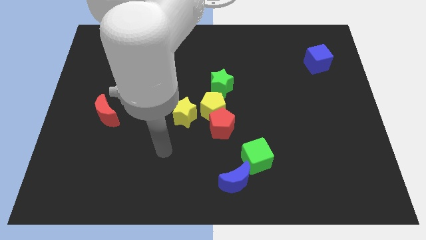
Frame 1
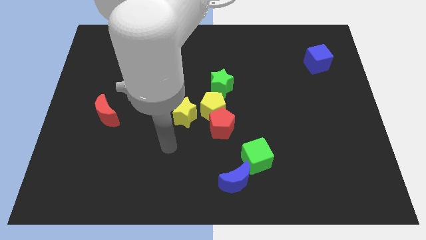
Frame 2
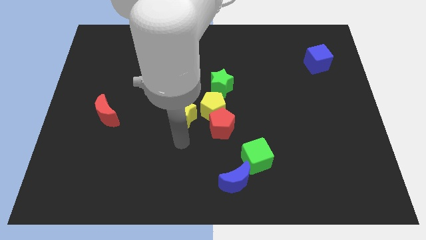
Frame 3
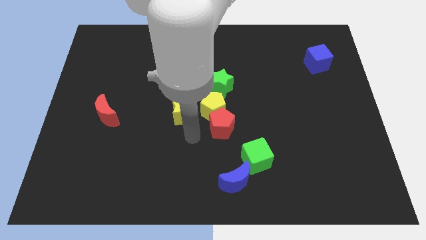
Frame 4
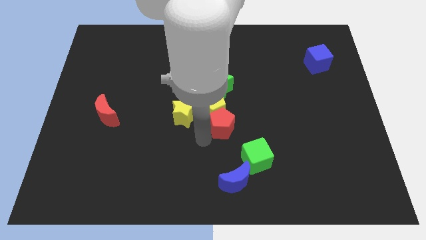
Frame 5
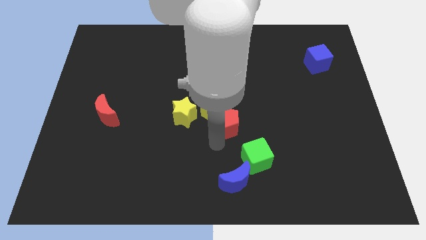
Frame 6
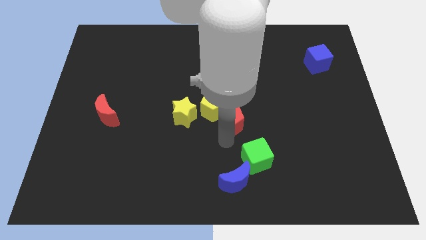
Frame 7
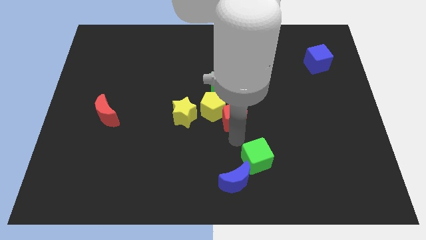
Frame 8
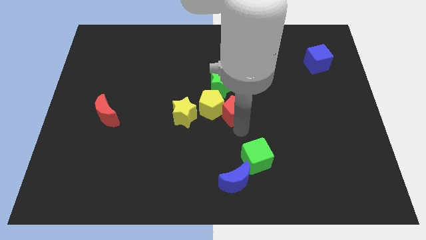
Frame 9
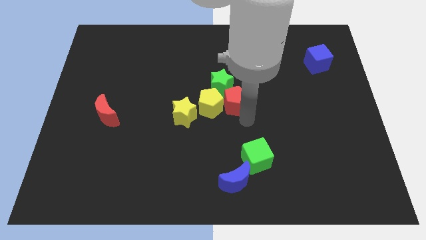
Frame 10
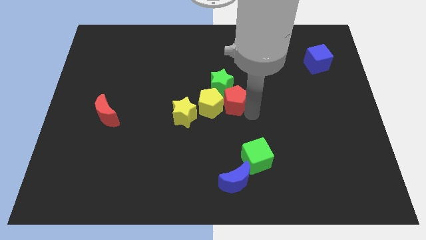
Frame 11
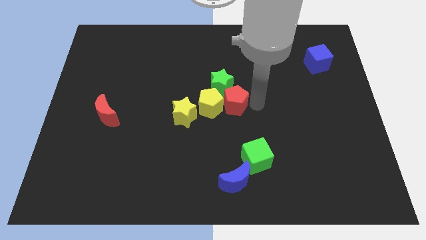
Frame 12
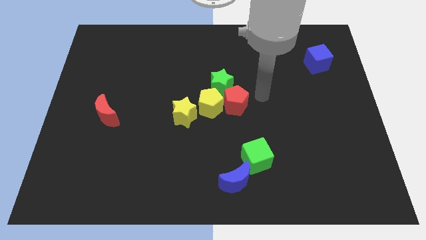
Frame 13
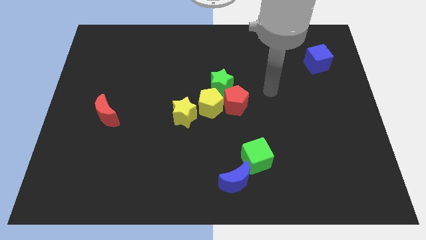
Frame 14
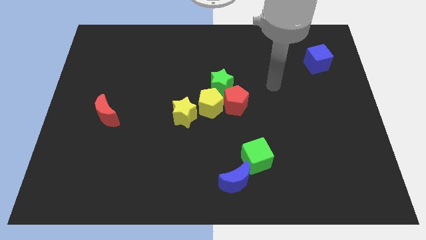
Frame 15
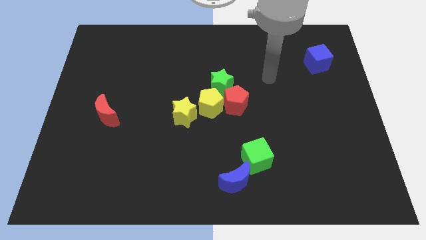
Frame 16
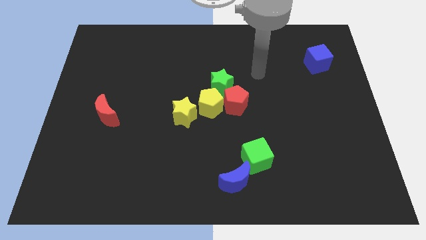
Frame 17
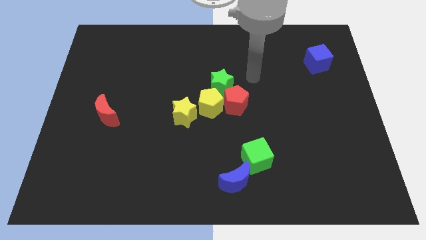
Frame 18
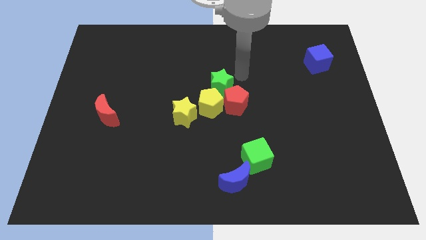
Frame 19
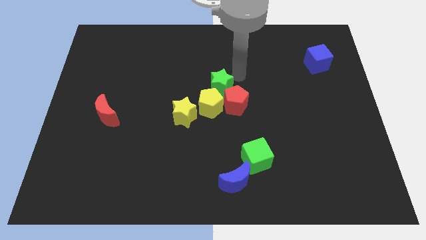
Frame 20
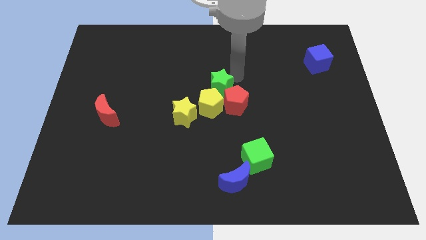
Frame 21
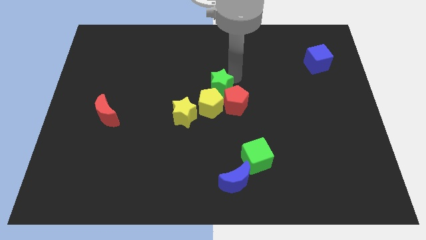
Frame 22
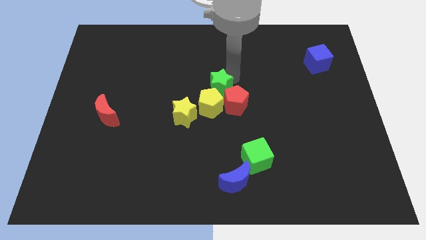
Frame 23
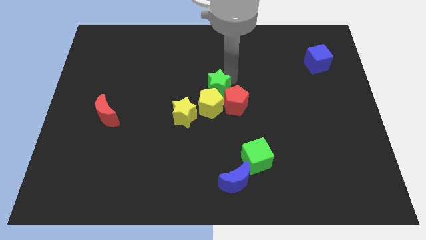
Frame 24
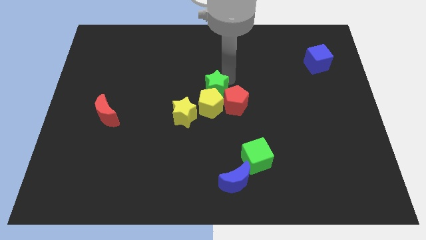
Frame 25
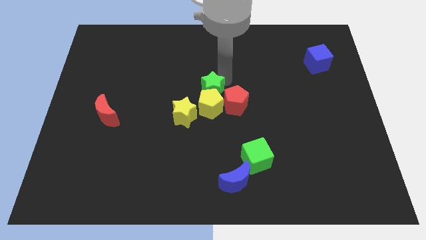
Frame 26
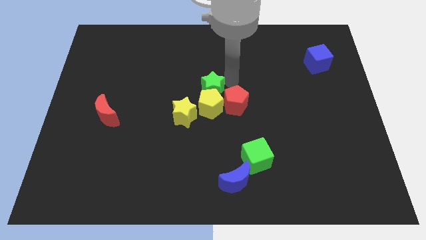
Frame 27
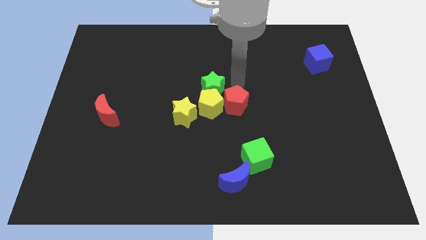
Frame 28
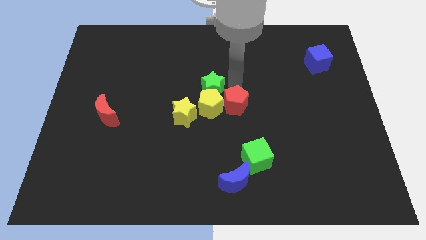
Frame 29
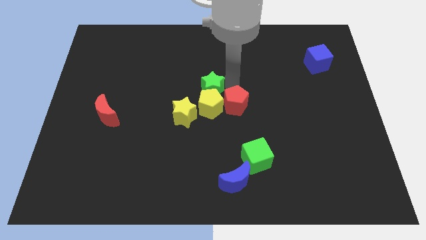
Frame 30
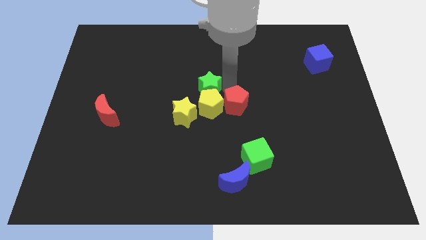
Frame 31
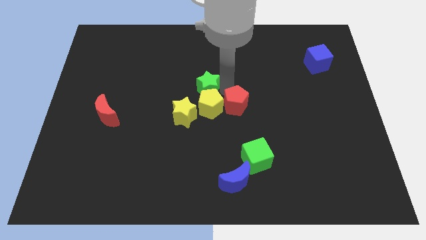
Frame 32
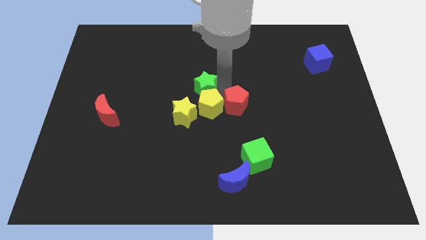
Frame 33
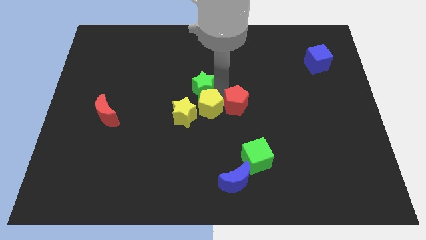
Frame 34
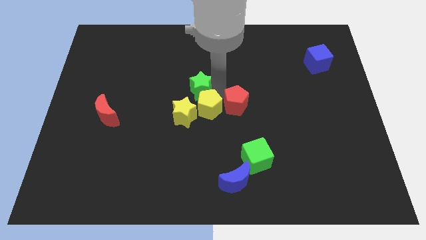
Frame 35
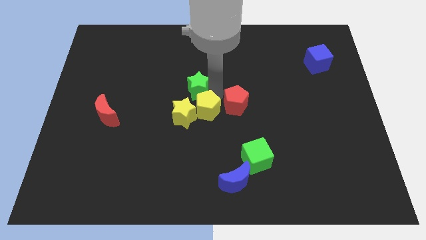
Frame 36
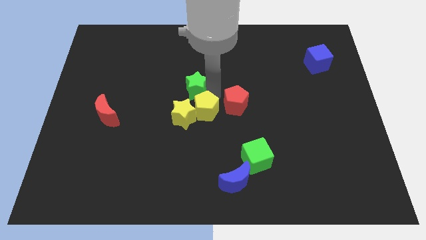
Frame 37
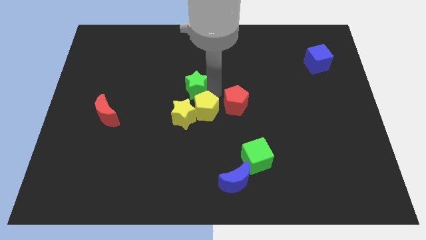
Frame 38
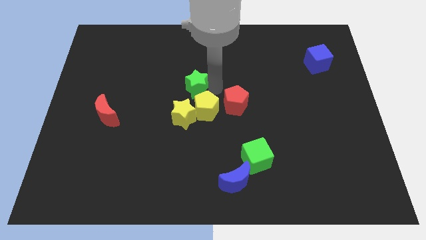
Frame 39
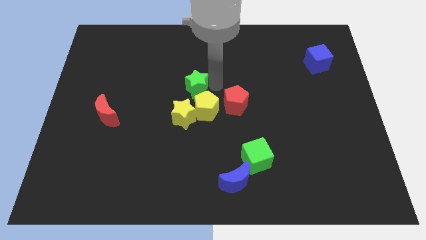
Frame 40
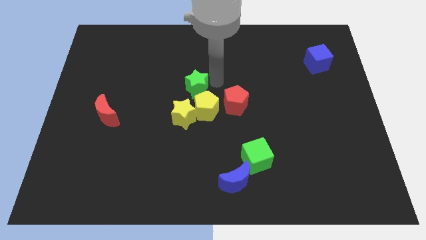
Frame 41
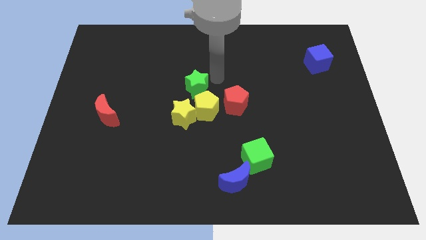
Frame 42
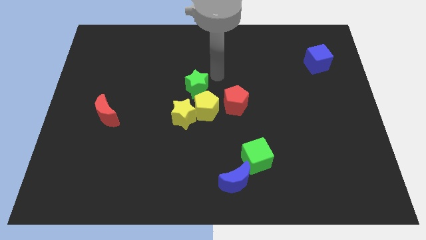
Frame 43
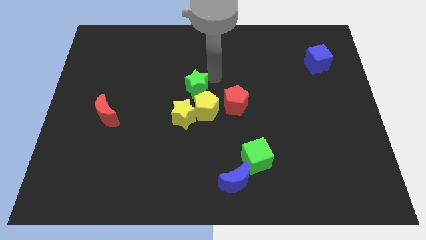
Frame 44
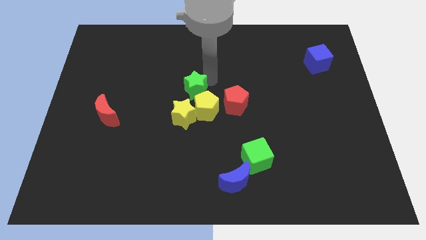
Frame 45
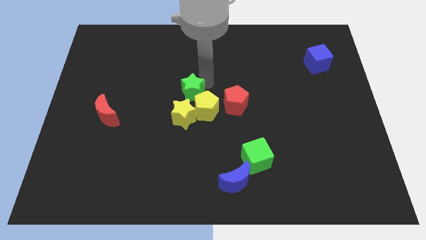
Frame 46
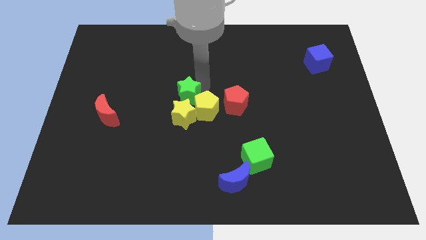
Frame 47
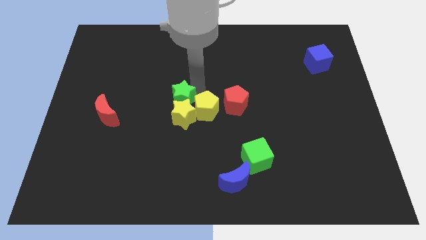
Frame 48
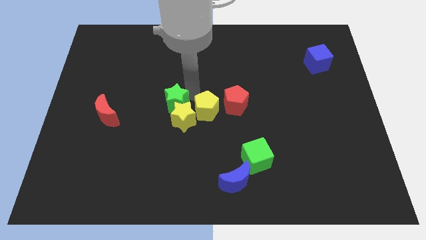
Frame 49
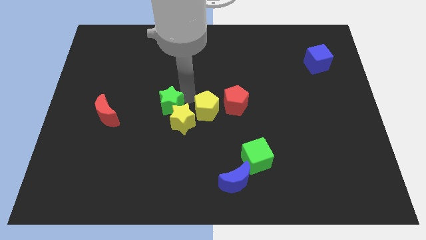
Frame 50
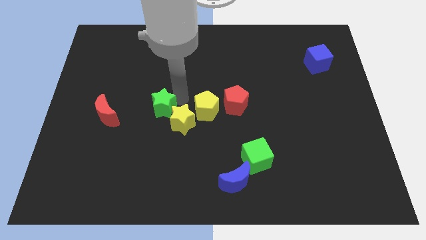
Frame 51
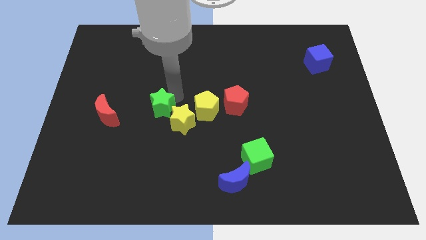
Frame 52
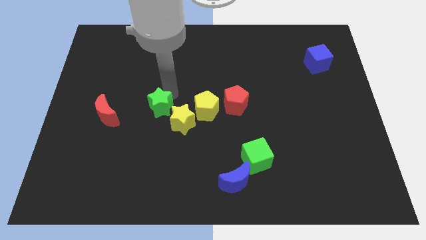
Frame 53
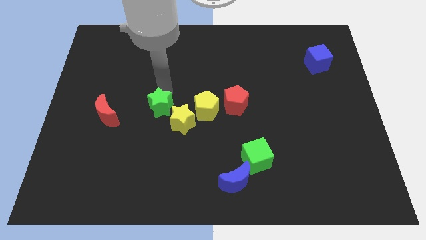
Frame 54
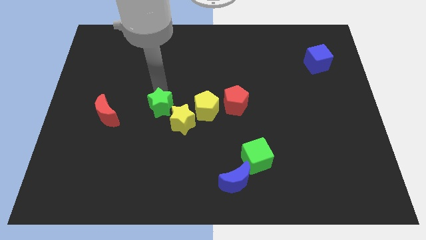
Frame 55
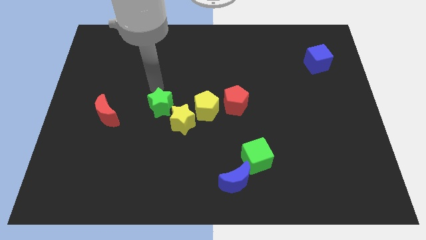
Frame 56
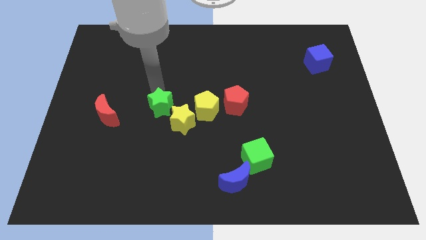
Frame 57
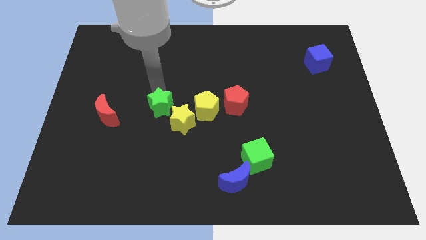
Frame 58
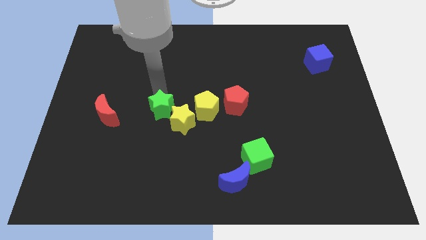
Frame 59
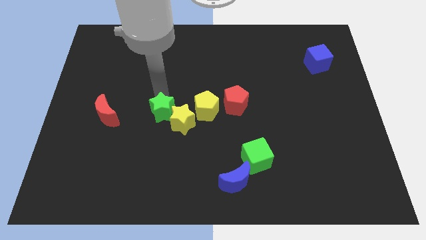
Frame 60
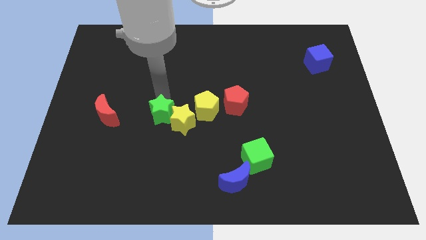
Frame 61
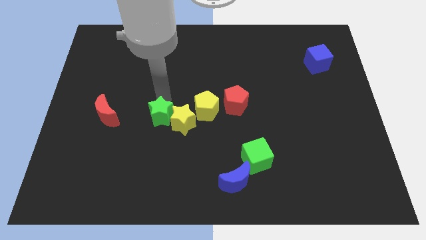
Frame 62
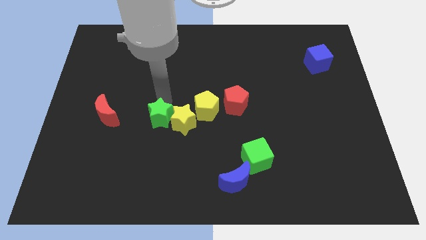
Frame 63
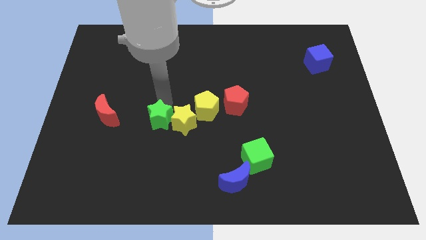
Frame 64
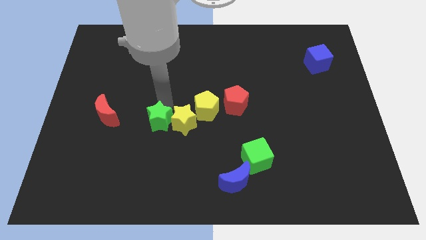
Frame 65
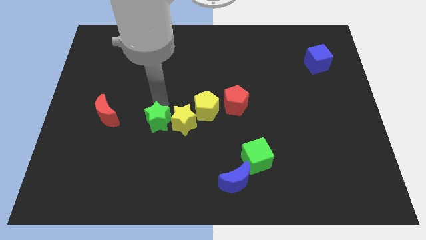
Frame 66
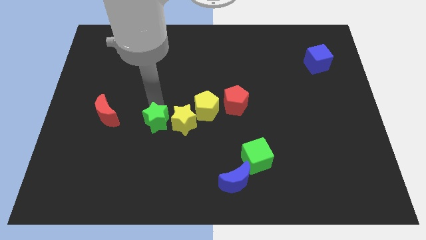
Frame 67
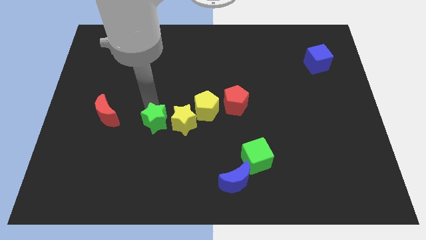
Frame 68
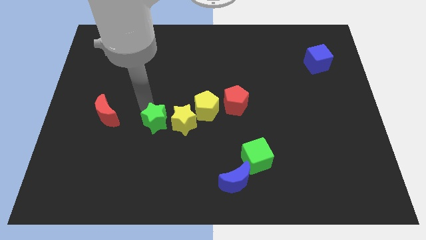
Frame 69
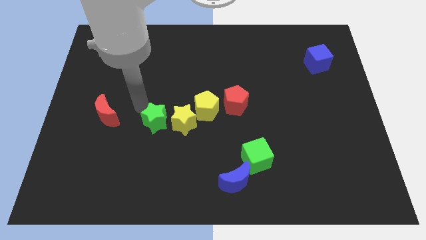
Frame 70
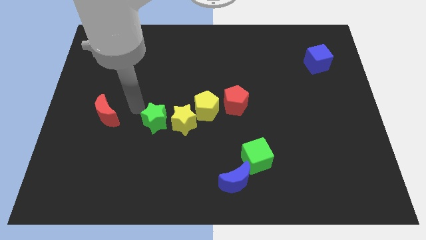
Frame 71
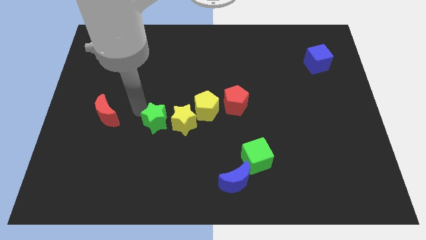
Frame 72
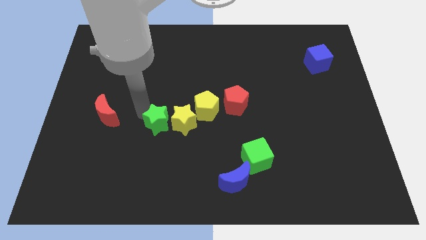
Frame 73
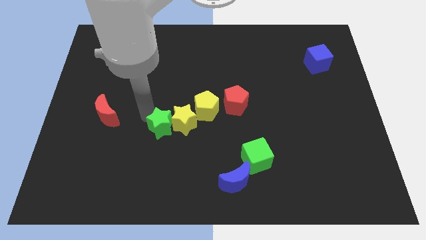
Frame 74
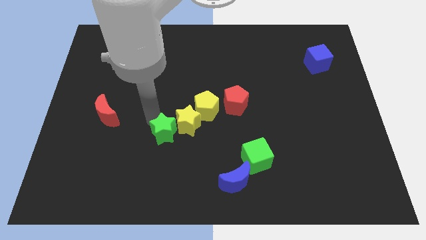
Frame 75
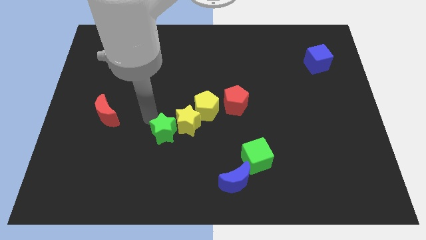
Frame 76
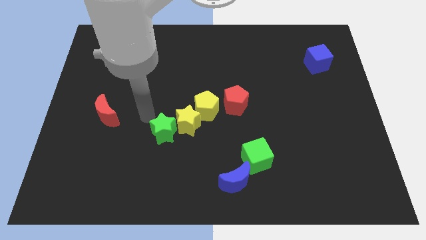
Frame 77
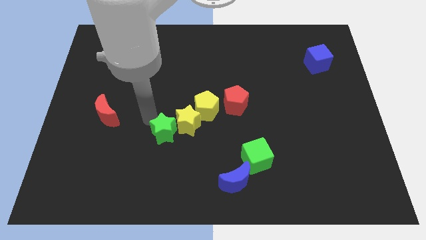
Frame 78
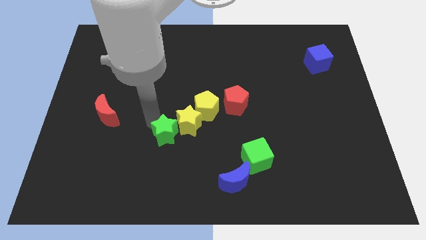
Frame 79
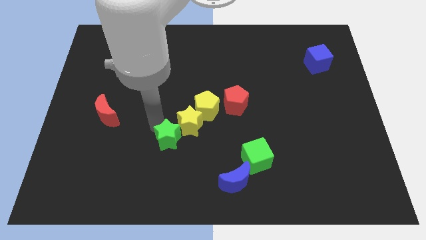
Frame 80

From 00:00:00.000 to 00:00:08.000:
push the green star a little downwards

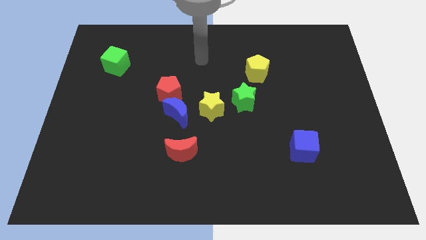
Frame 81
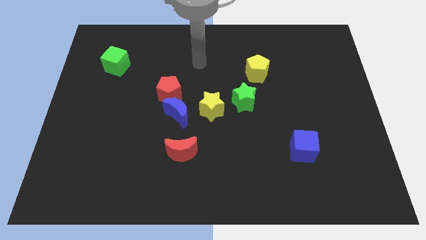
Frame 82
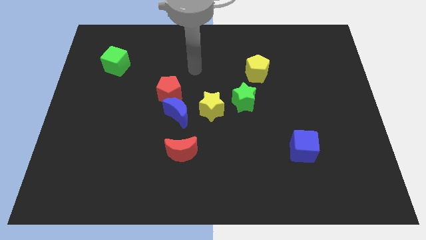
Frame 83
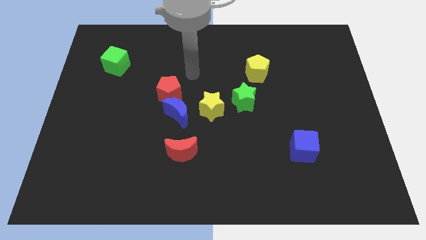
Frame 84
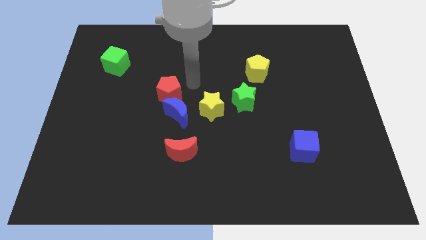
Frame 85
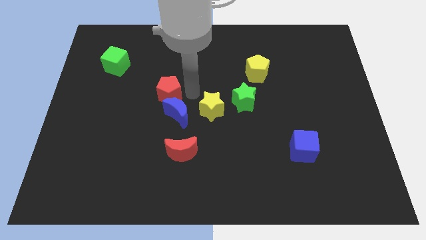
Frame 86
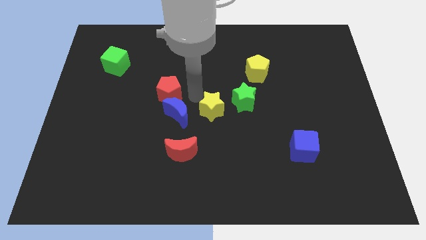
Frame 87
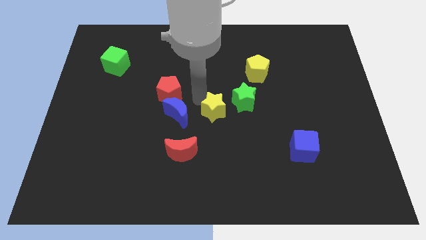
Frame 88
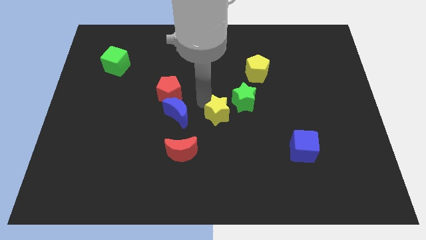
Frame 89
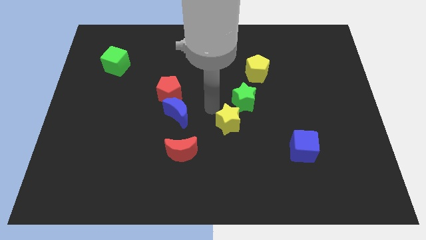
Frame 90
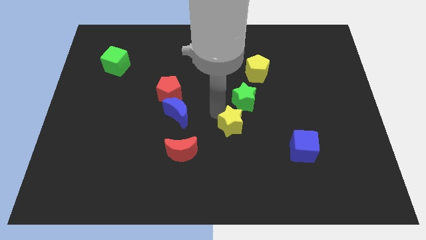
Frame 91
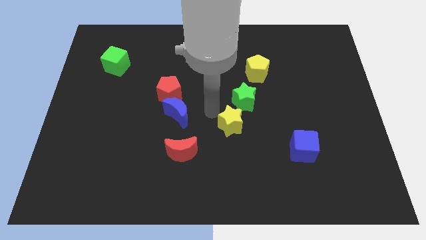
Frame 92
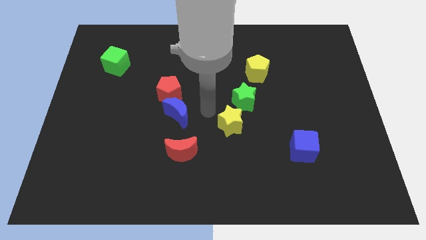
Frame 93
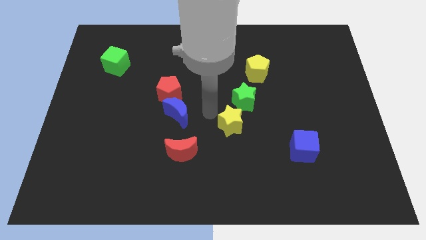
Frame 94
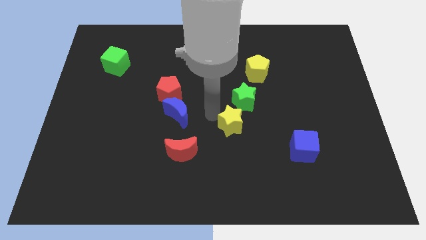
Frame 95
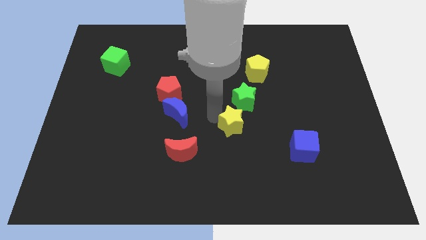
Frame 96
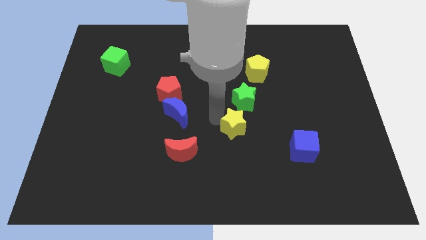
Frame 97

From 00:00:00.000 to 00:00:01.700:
push the yellow star a little bit down and right diagonally
